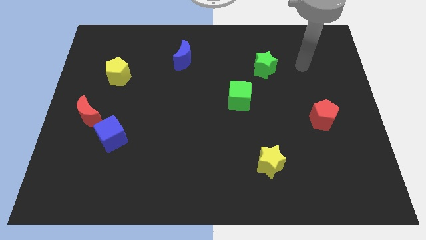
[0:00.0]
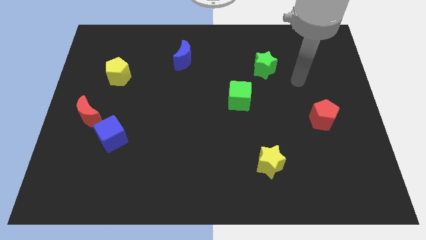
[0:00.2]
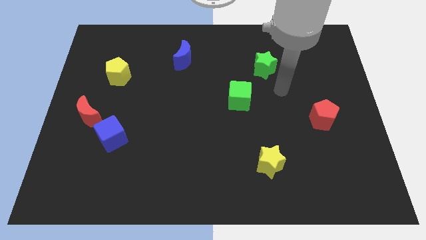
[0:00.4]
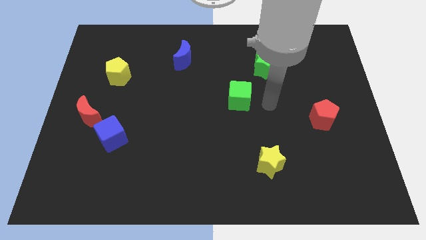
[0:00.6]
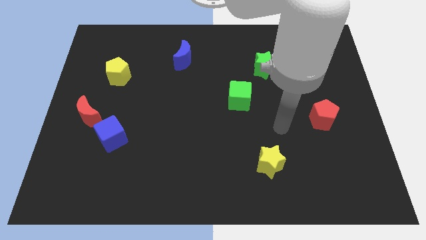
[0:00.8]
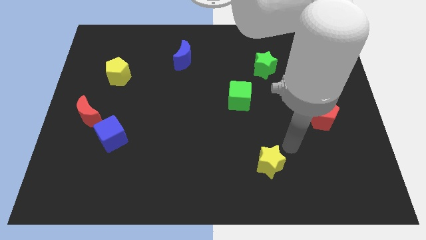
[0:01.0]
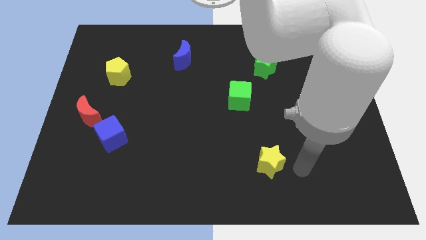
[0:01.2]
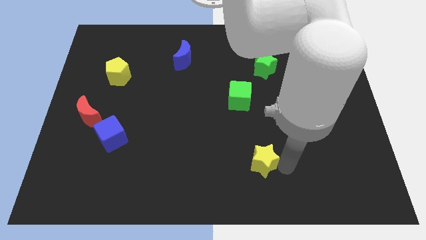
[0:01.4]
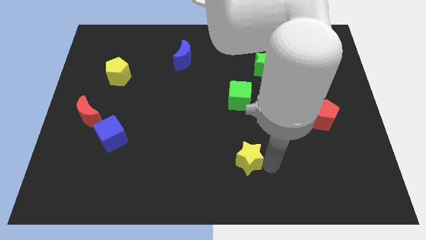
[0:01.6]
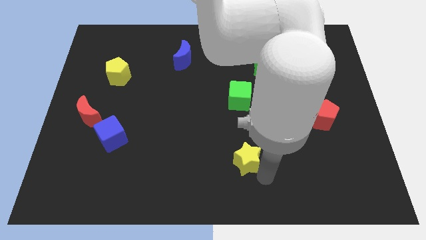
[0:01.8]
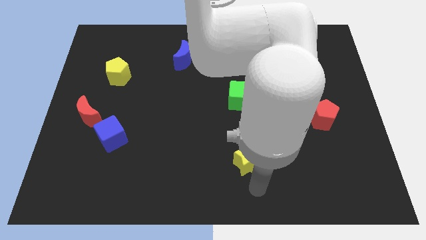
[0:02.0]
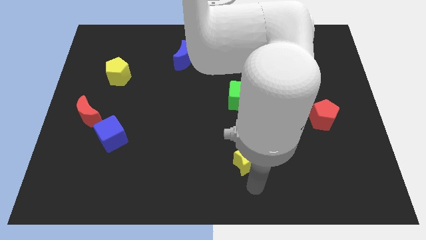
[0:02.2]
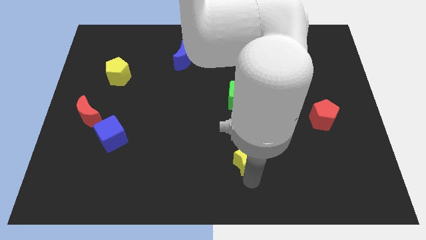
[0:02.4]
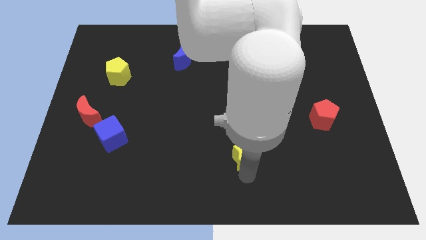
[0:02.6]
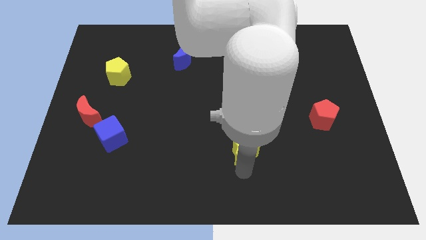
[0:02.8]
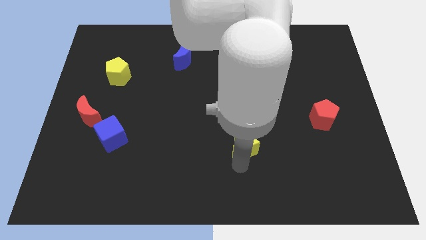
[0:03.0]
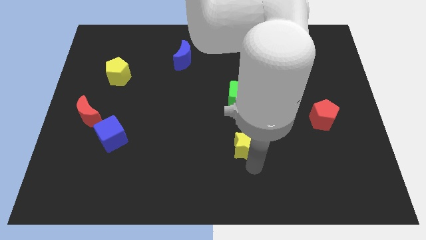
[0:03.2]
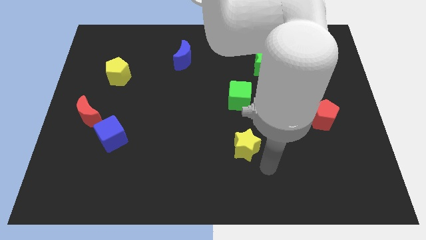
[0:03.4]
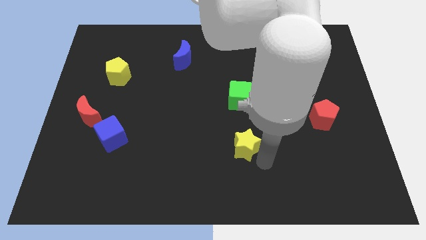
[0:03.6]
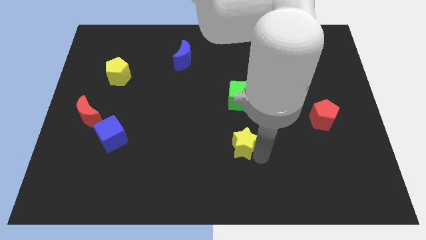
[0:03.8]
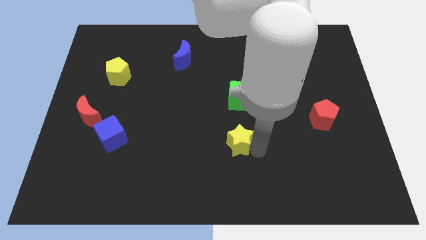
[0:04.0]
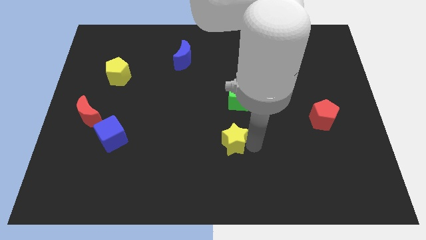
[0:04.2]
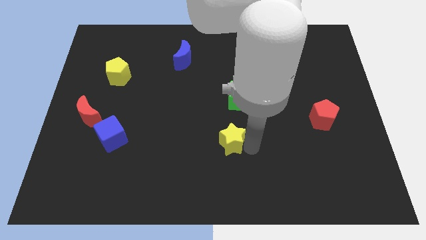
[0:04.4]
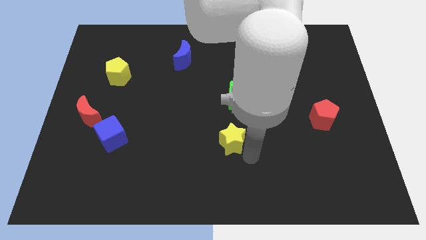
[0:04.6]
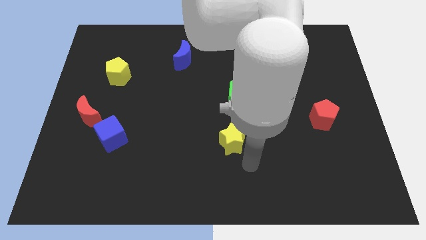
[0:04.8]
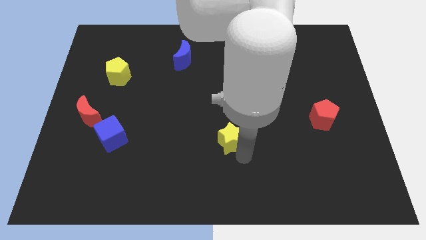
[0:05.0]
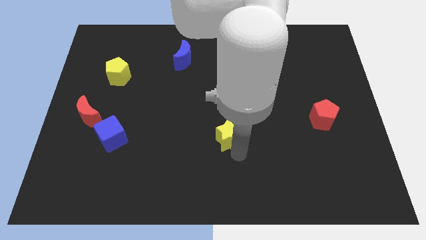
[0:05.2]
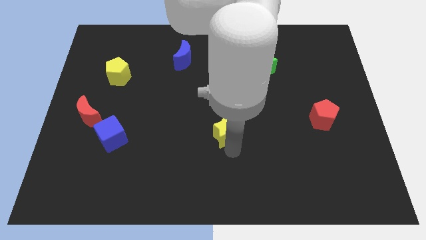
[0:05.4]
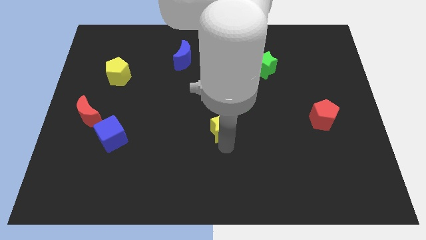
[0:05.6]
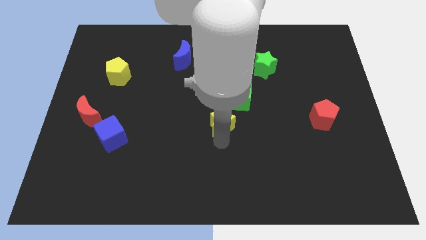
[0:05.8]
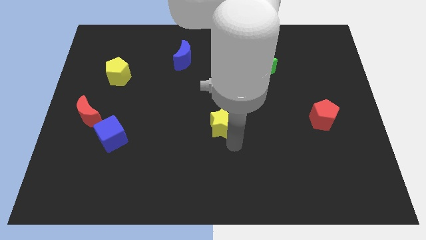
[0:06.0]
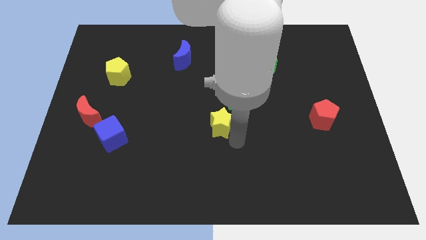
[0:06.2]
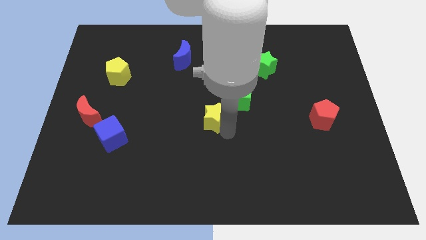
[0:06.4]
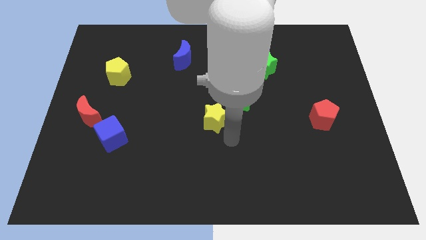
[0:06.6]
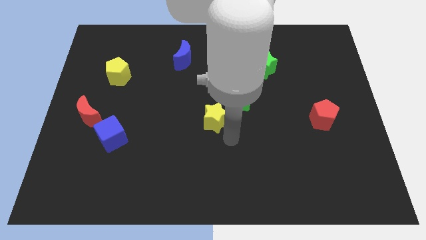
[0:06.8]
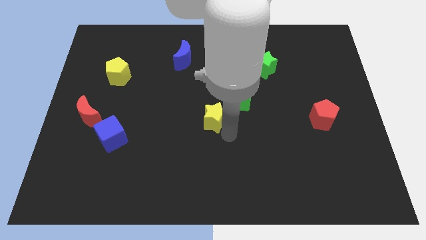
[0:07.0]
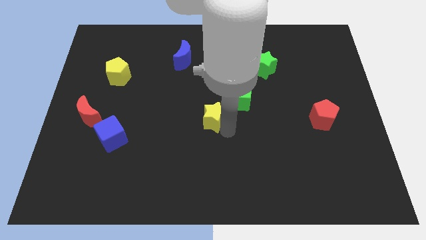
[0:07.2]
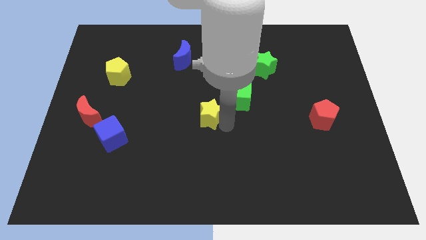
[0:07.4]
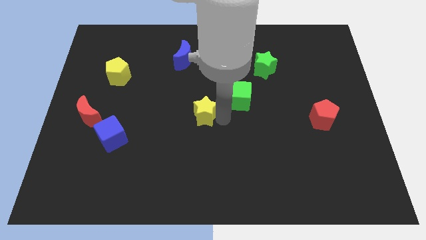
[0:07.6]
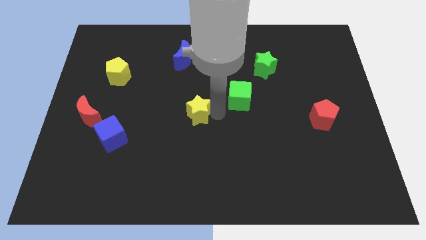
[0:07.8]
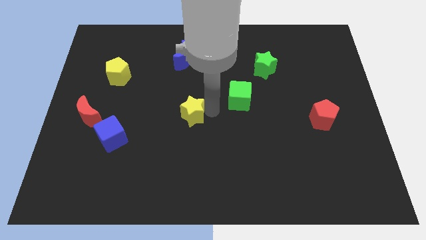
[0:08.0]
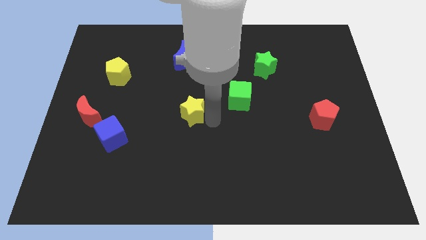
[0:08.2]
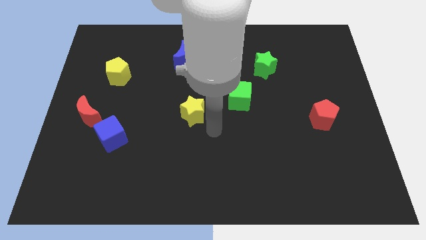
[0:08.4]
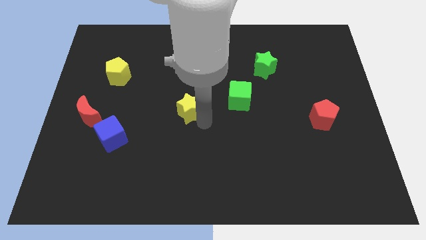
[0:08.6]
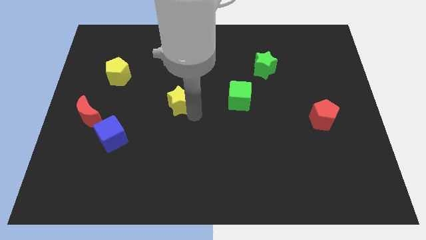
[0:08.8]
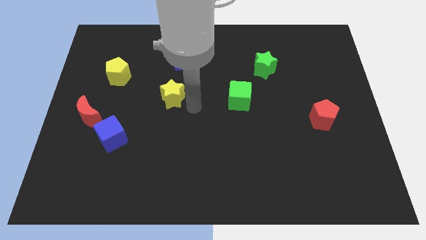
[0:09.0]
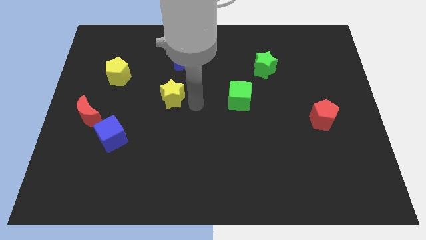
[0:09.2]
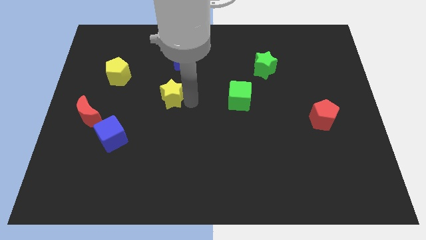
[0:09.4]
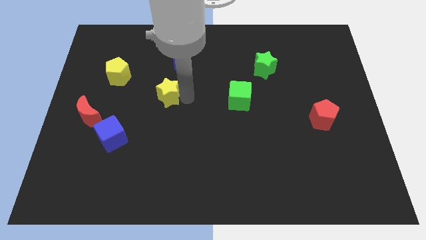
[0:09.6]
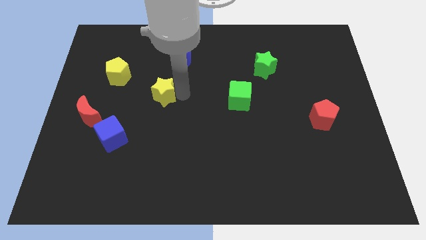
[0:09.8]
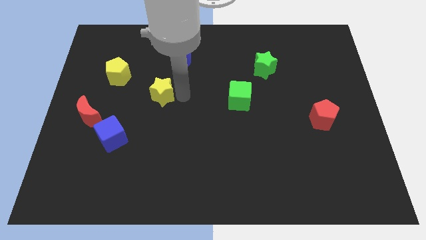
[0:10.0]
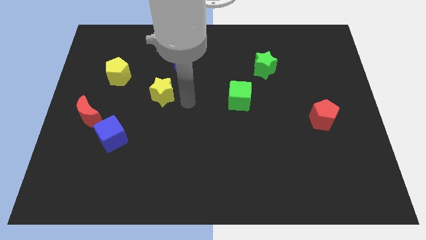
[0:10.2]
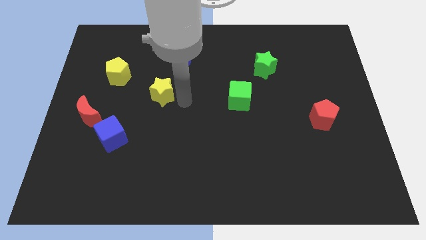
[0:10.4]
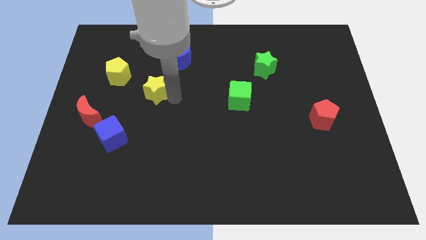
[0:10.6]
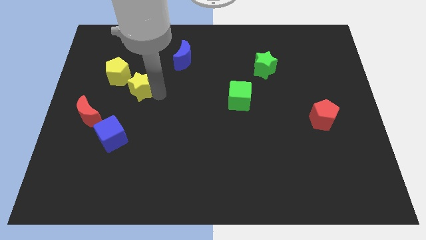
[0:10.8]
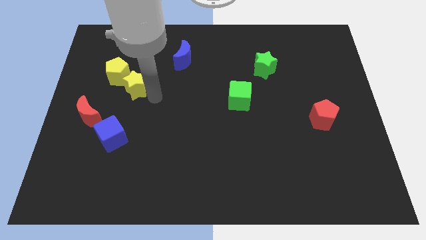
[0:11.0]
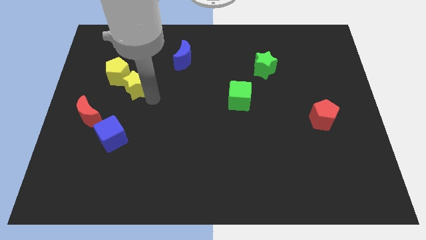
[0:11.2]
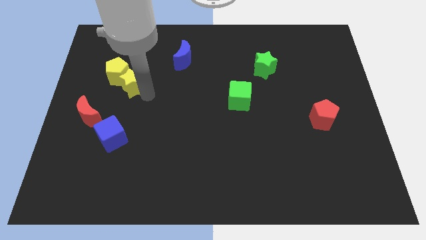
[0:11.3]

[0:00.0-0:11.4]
put the yellow star to the yellow pentagon

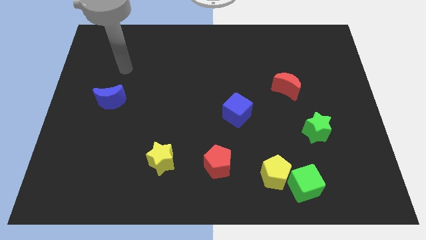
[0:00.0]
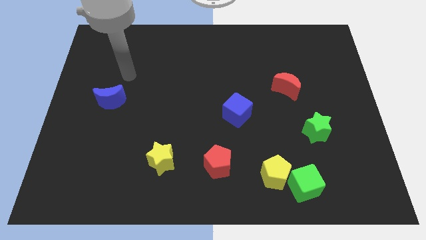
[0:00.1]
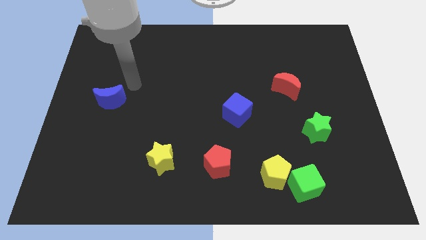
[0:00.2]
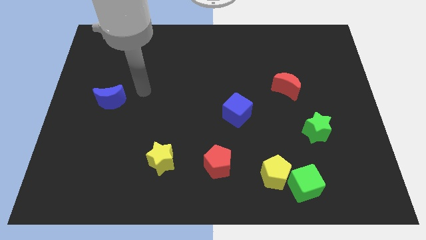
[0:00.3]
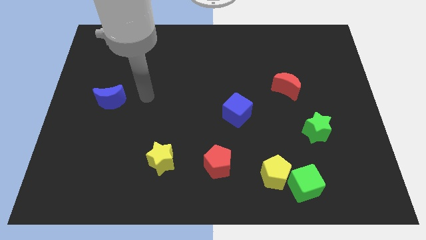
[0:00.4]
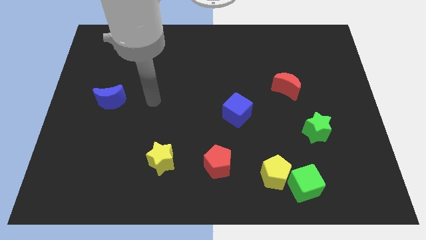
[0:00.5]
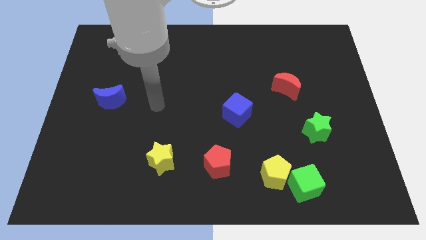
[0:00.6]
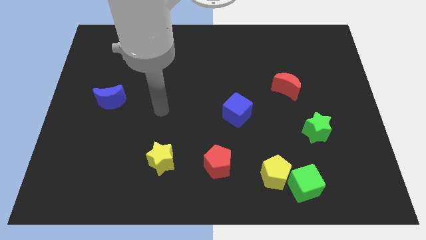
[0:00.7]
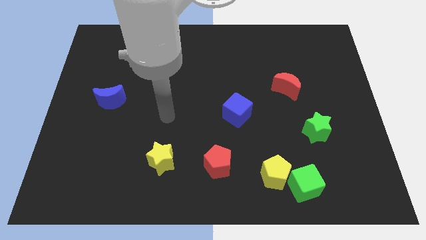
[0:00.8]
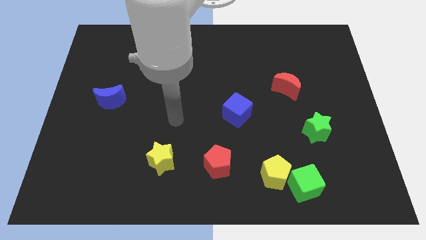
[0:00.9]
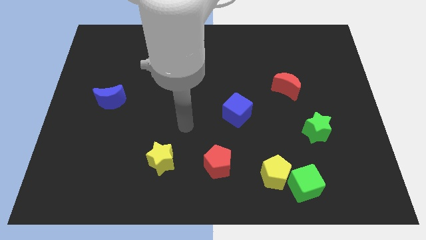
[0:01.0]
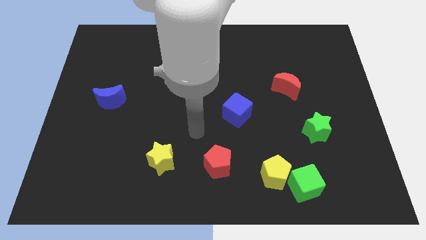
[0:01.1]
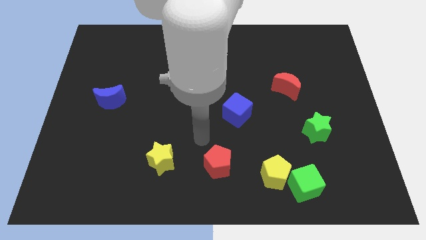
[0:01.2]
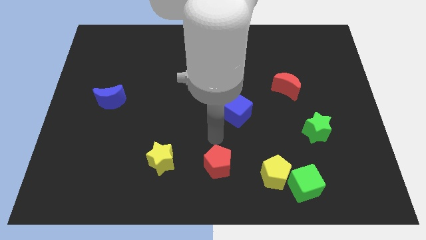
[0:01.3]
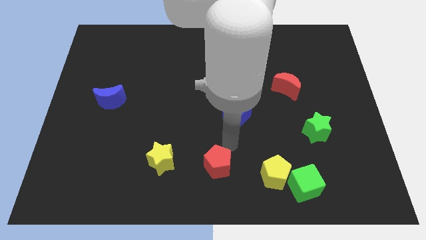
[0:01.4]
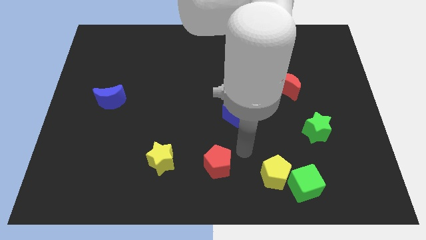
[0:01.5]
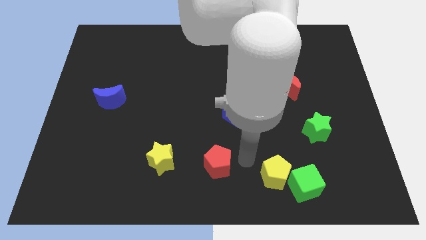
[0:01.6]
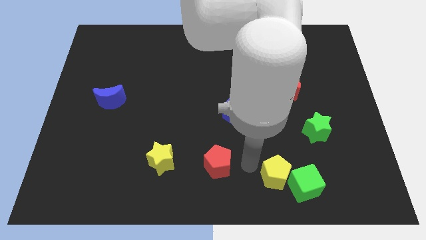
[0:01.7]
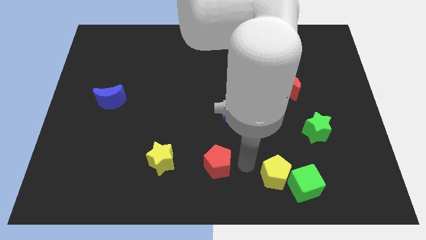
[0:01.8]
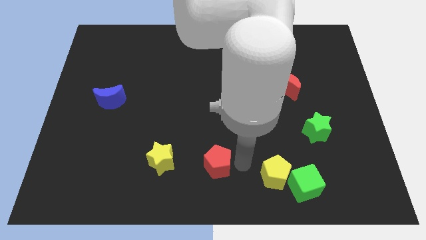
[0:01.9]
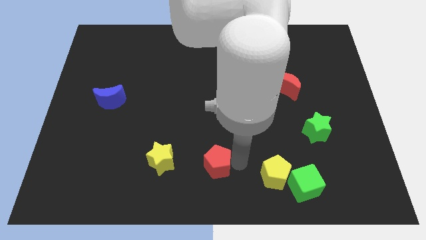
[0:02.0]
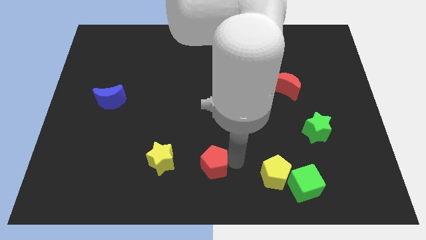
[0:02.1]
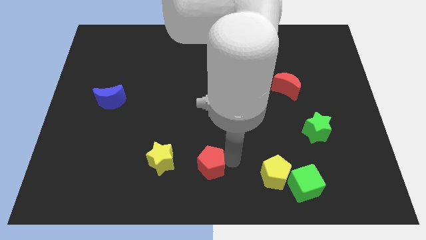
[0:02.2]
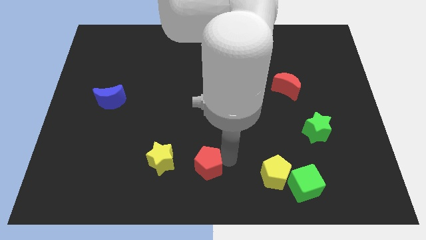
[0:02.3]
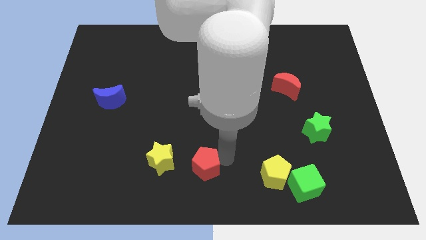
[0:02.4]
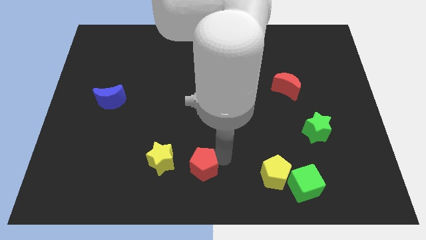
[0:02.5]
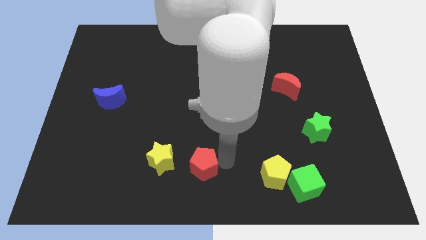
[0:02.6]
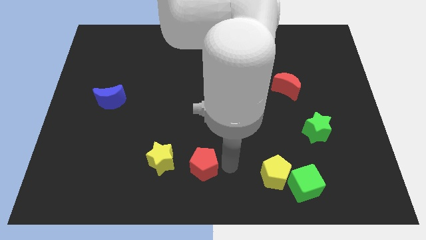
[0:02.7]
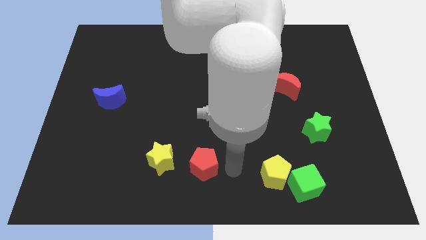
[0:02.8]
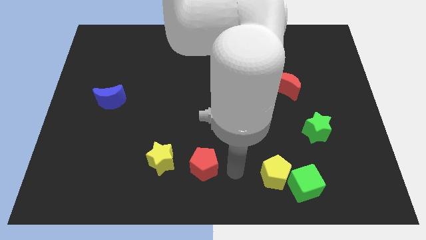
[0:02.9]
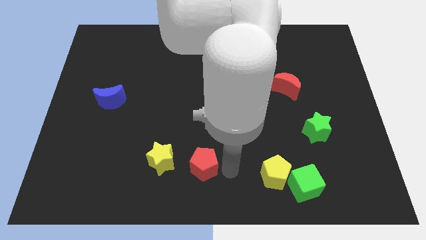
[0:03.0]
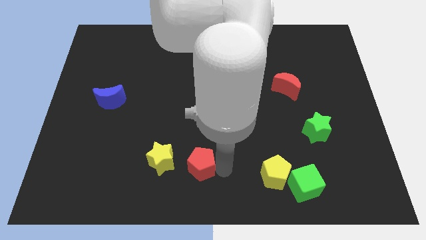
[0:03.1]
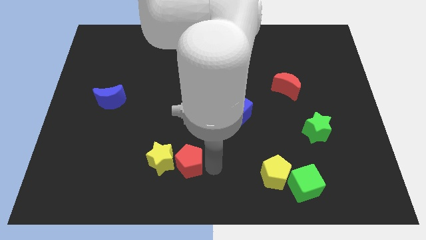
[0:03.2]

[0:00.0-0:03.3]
put the red pentagon to the yellow star
